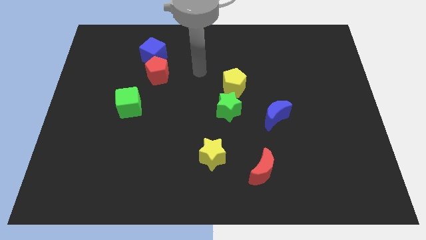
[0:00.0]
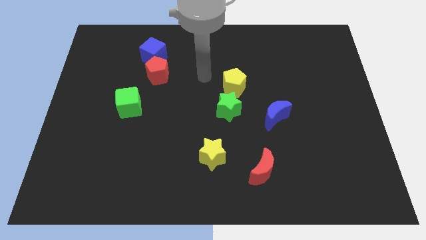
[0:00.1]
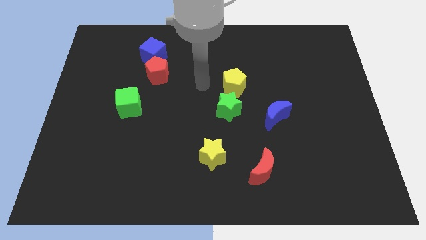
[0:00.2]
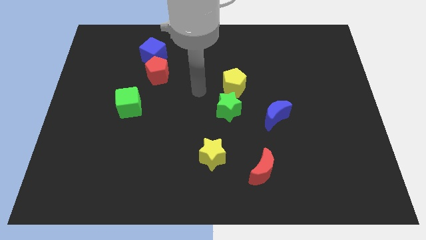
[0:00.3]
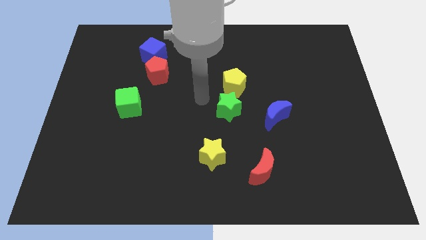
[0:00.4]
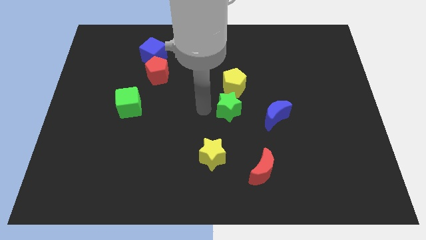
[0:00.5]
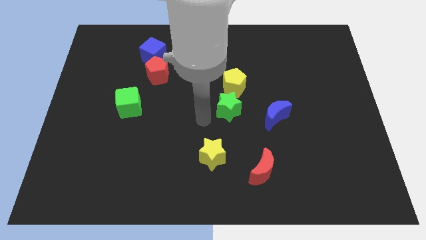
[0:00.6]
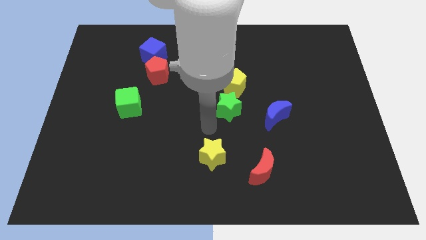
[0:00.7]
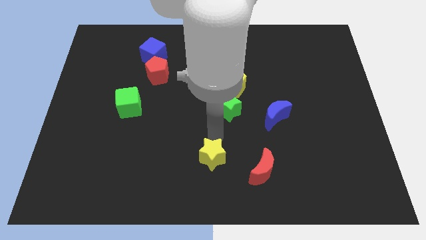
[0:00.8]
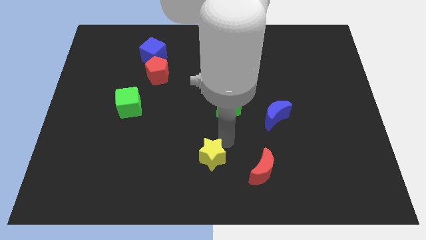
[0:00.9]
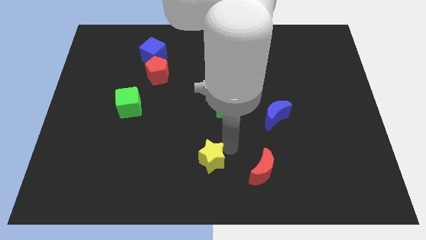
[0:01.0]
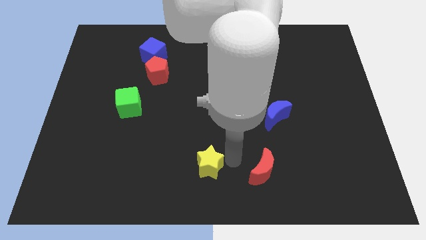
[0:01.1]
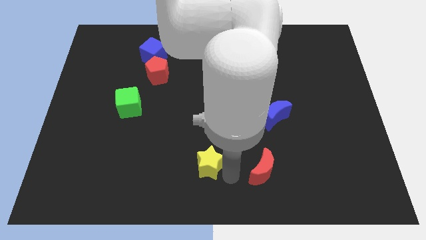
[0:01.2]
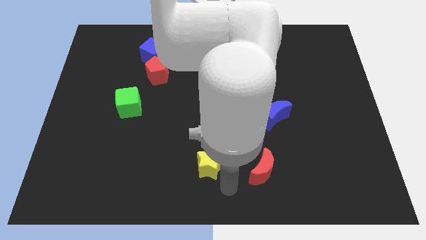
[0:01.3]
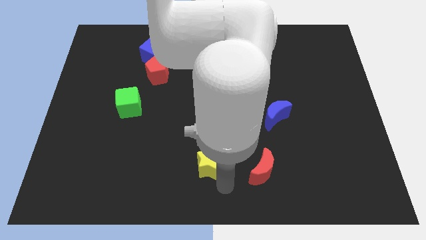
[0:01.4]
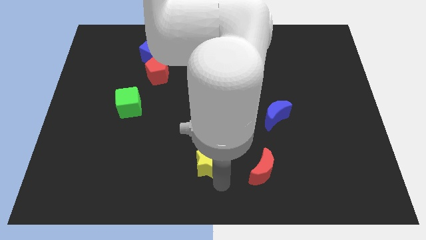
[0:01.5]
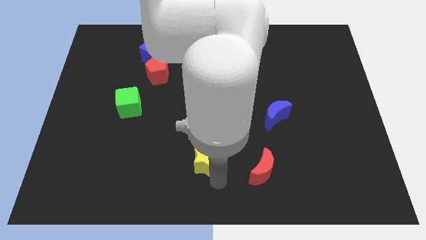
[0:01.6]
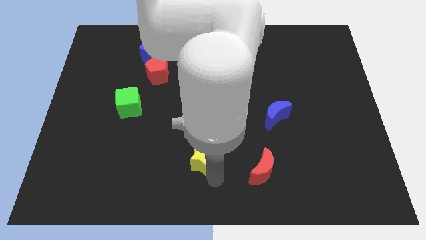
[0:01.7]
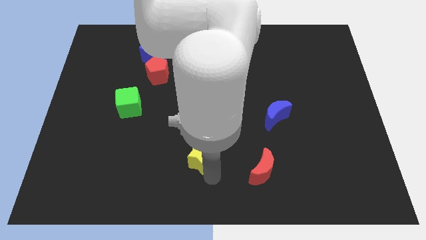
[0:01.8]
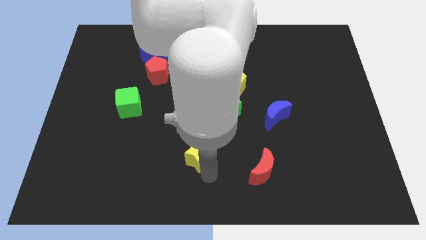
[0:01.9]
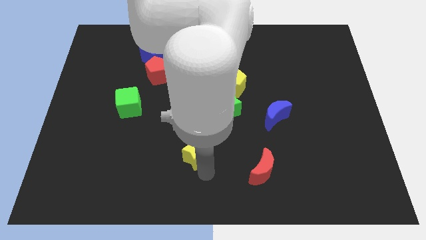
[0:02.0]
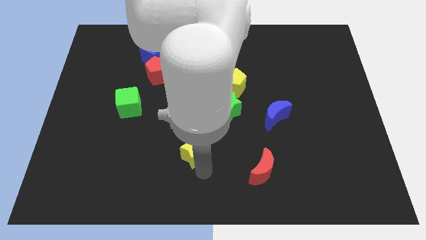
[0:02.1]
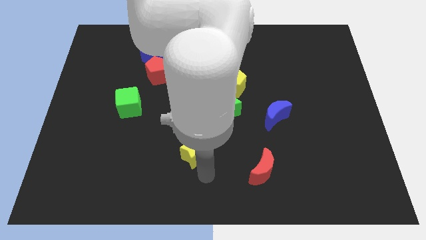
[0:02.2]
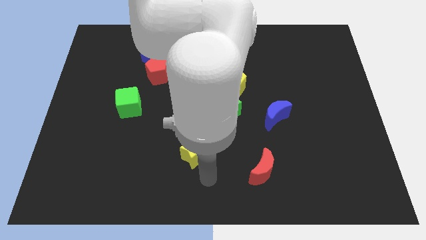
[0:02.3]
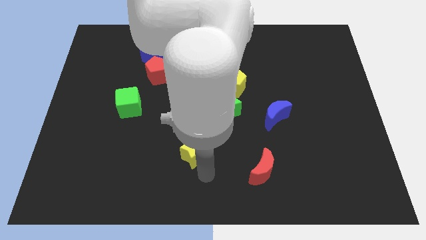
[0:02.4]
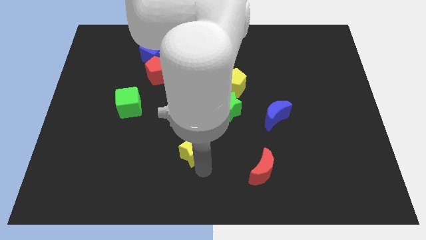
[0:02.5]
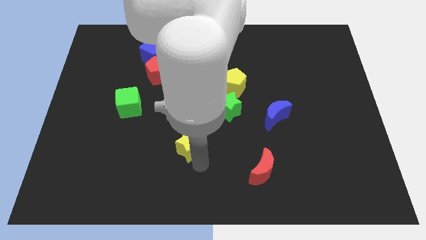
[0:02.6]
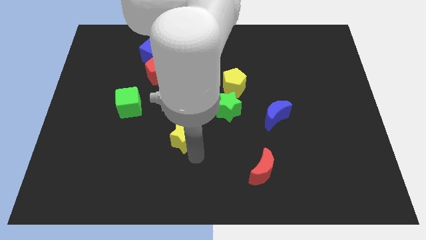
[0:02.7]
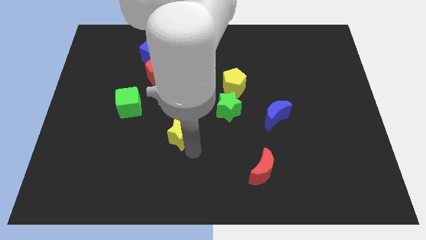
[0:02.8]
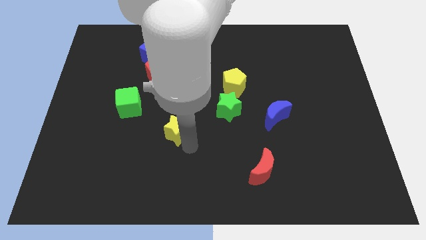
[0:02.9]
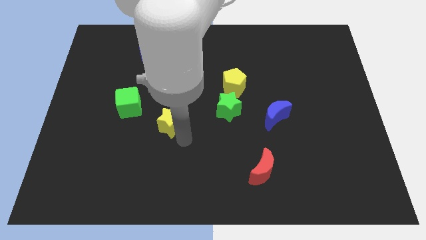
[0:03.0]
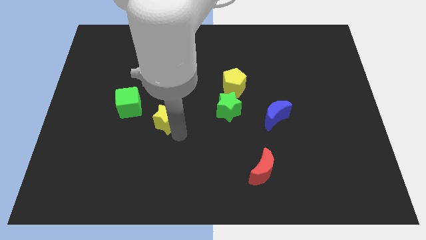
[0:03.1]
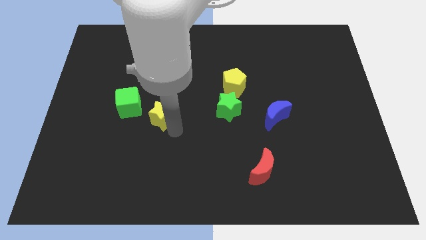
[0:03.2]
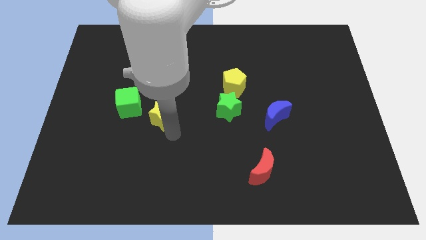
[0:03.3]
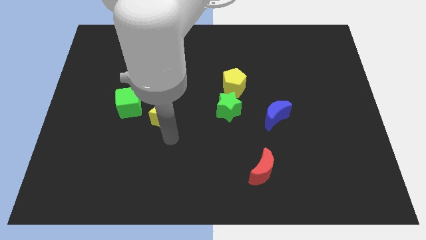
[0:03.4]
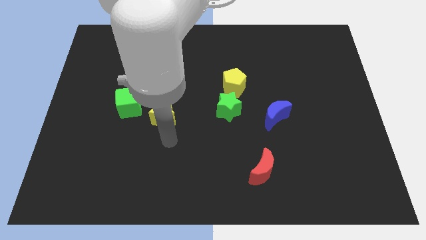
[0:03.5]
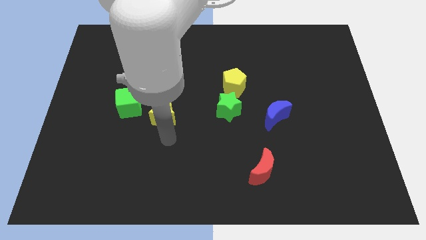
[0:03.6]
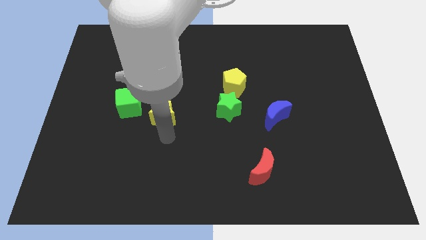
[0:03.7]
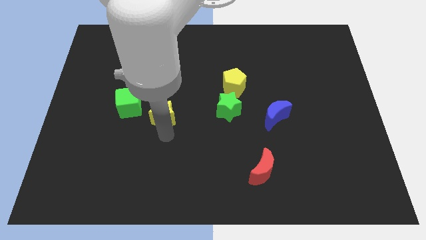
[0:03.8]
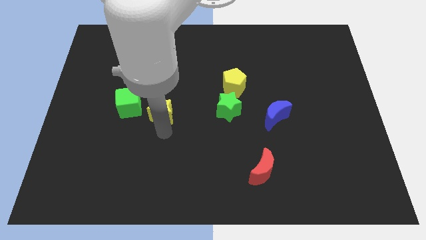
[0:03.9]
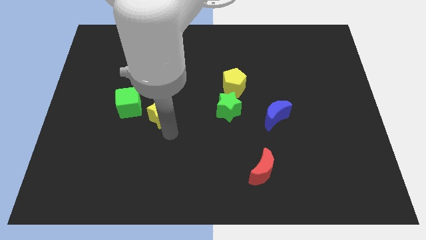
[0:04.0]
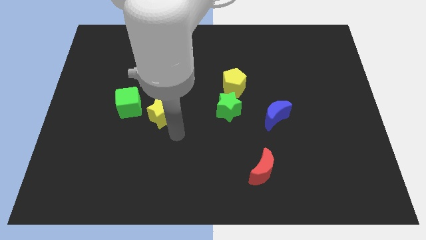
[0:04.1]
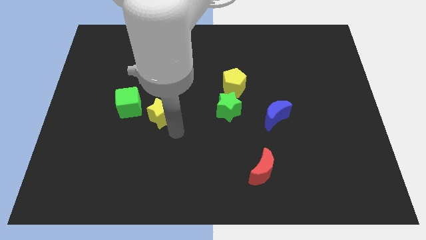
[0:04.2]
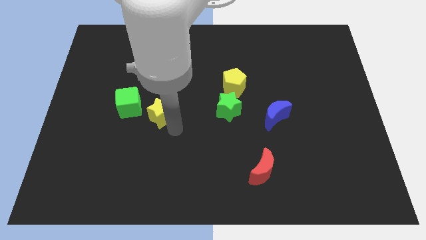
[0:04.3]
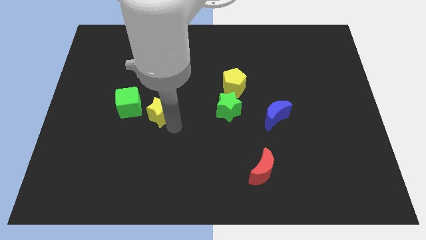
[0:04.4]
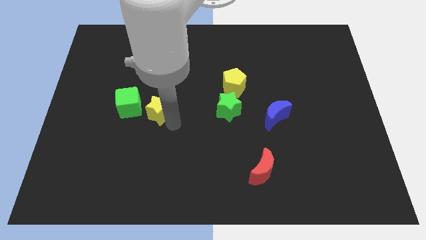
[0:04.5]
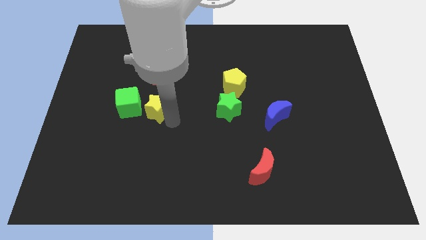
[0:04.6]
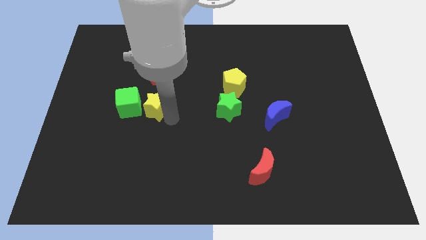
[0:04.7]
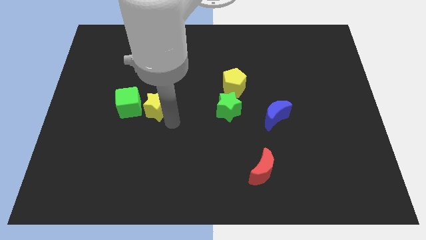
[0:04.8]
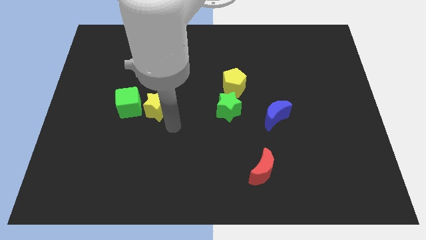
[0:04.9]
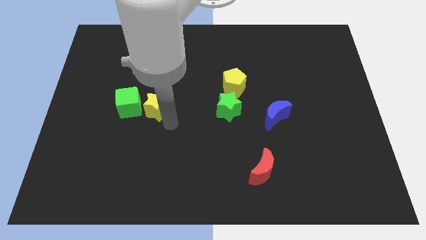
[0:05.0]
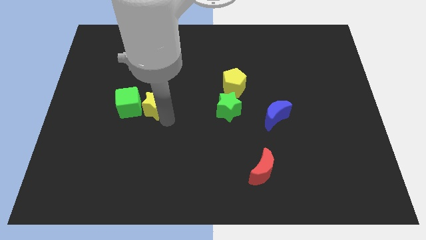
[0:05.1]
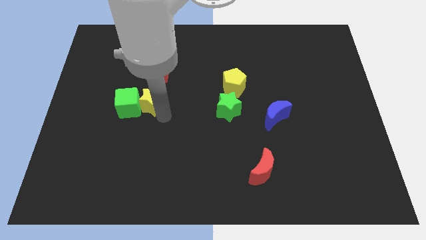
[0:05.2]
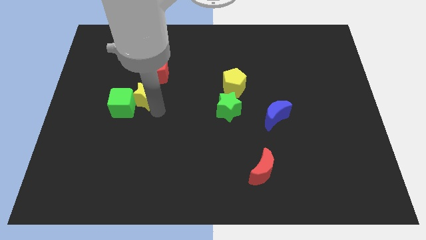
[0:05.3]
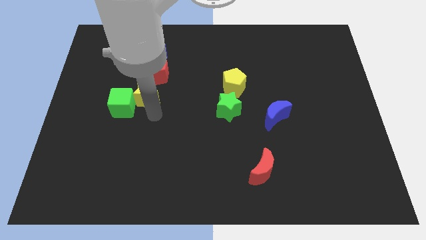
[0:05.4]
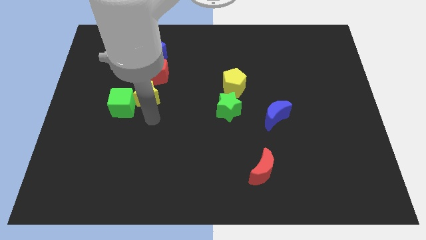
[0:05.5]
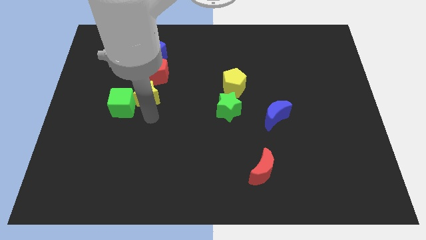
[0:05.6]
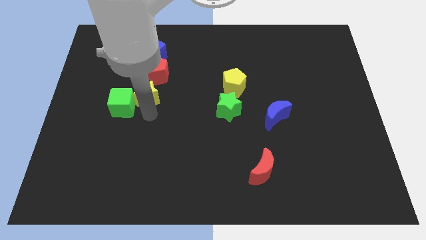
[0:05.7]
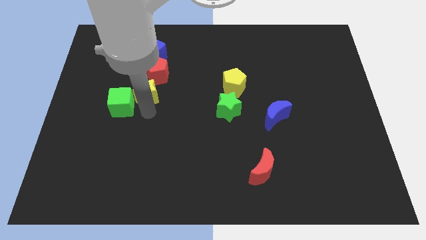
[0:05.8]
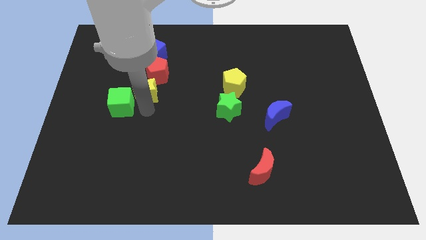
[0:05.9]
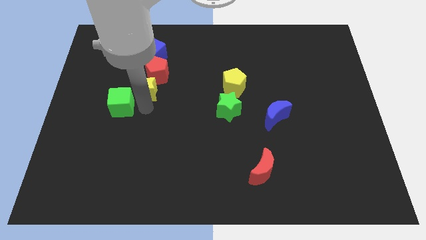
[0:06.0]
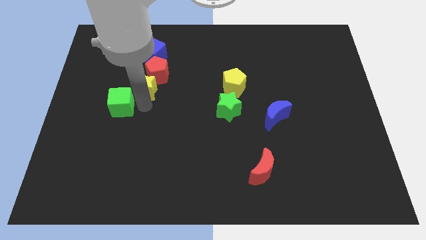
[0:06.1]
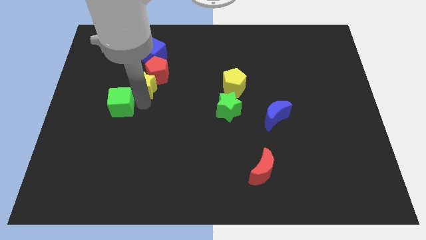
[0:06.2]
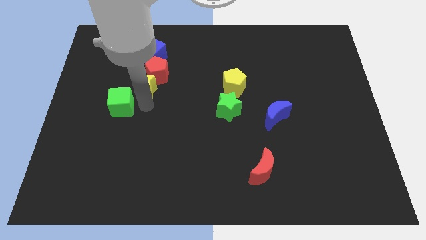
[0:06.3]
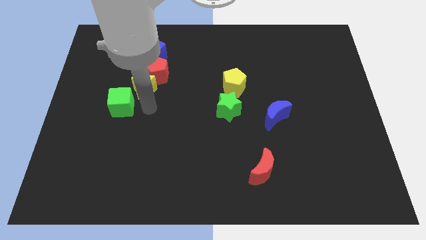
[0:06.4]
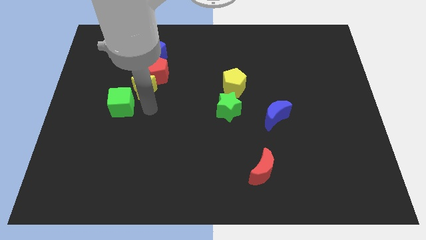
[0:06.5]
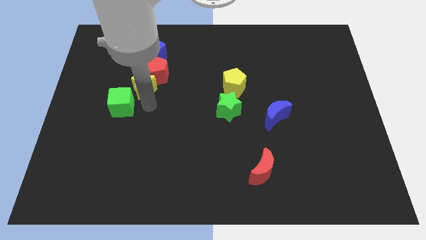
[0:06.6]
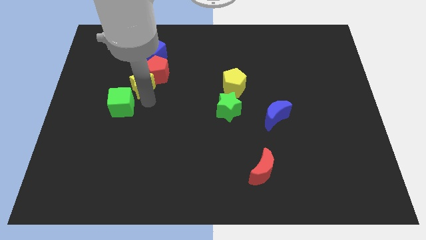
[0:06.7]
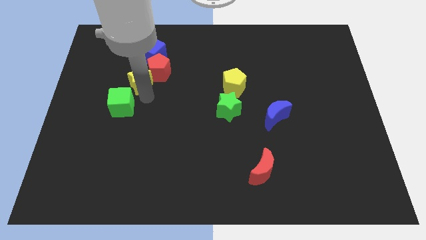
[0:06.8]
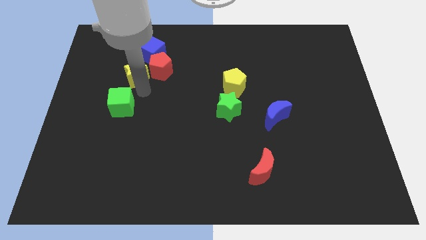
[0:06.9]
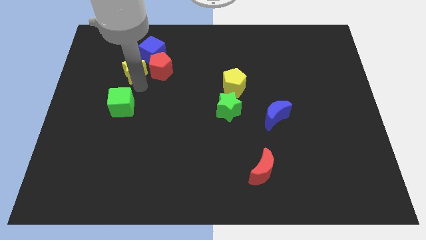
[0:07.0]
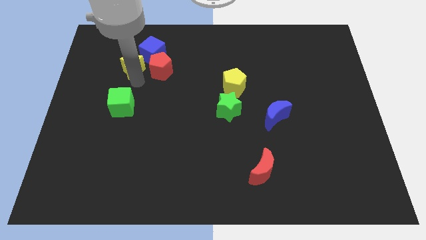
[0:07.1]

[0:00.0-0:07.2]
slide the yellow star to the top left of the red pentagon
